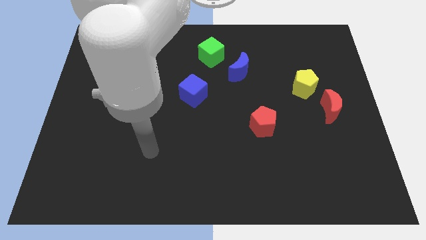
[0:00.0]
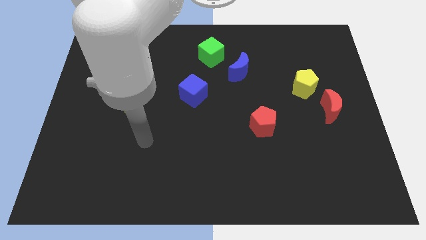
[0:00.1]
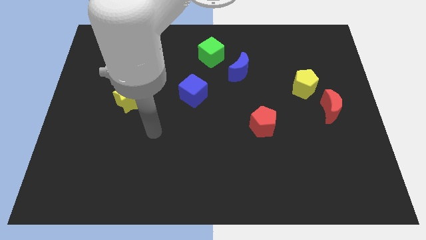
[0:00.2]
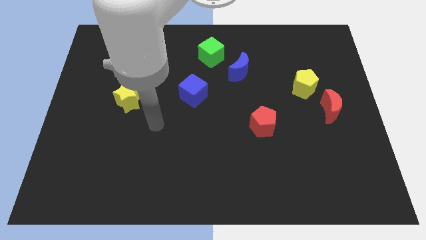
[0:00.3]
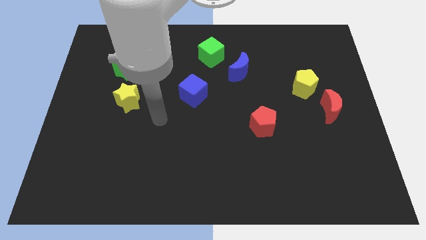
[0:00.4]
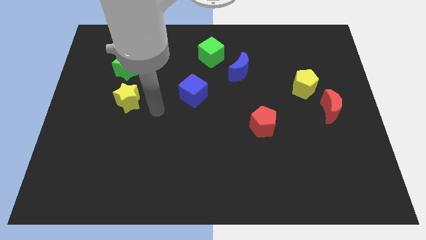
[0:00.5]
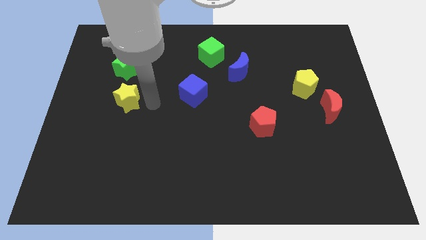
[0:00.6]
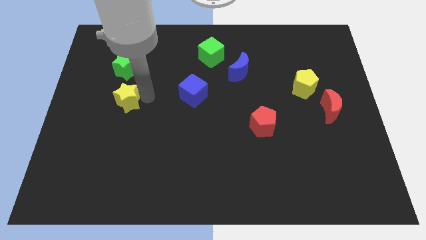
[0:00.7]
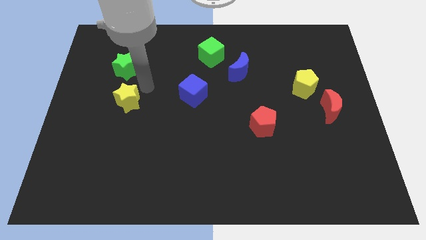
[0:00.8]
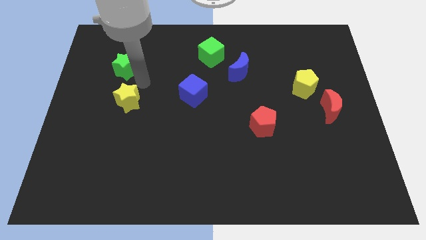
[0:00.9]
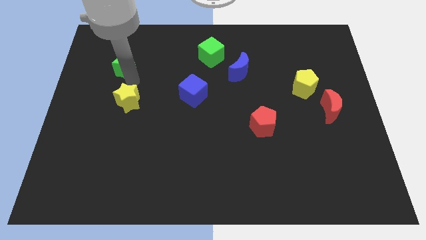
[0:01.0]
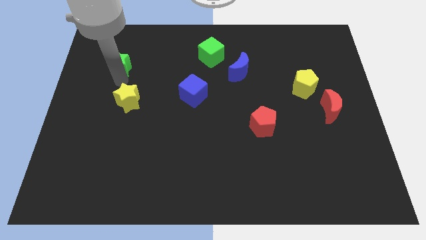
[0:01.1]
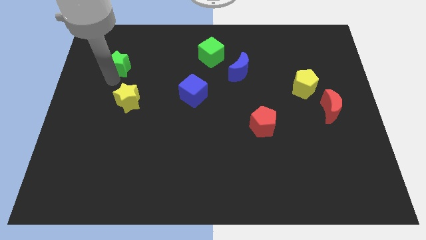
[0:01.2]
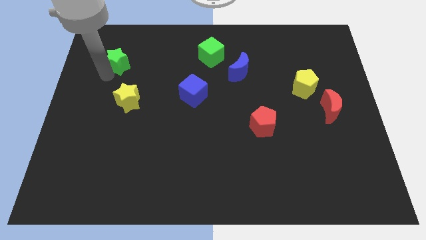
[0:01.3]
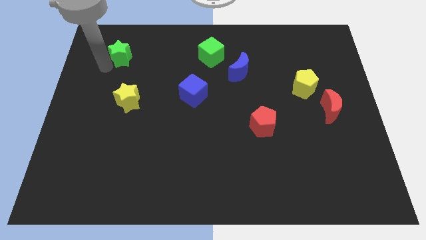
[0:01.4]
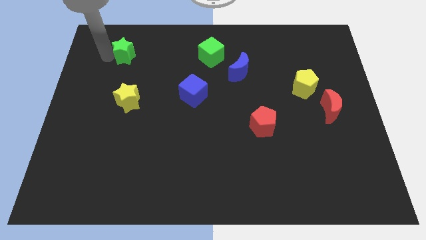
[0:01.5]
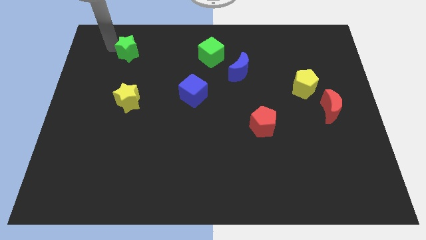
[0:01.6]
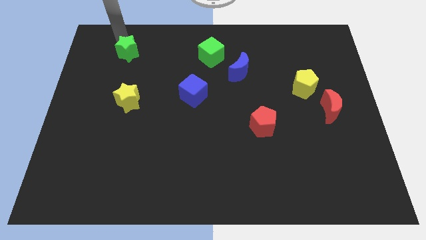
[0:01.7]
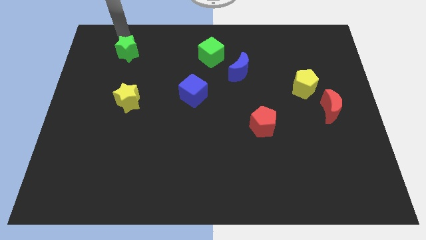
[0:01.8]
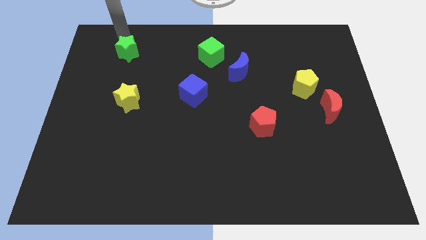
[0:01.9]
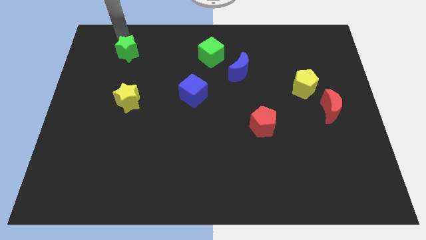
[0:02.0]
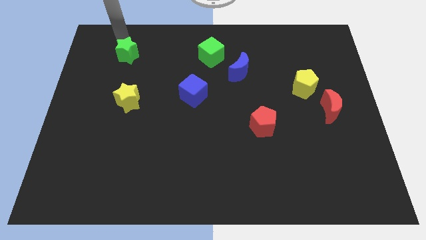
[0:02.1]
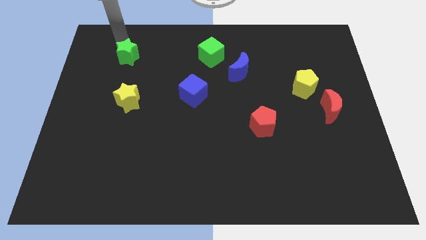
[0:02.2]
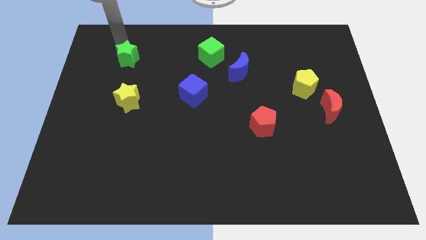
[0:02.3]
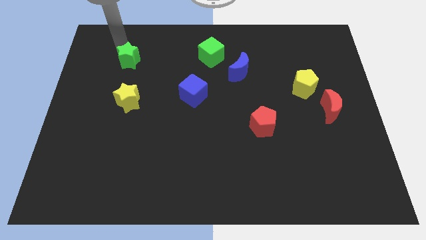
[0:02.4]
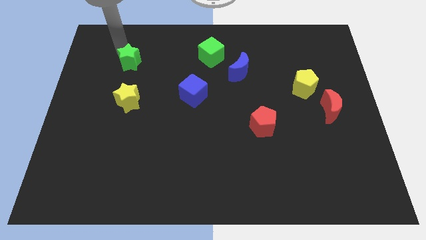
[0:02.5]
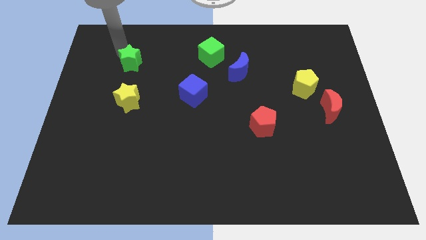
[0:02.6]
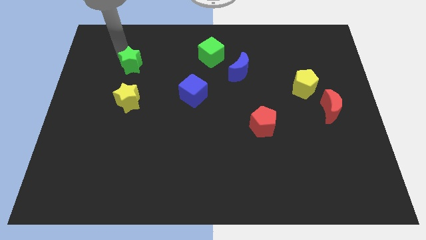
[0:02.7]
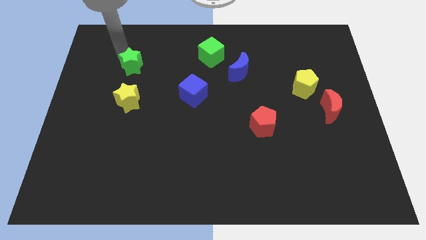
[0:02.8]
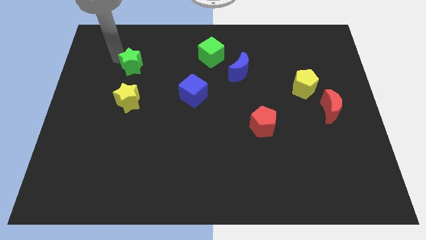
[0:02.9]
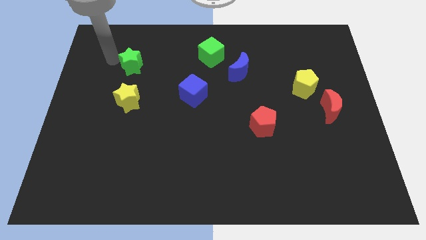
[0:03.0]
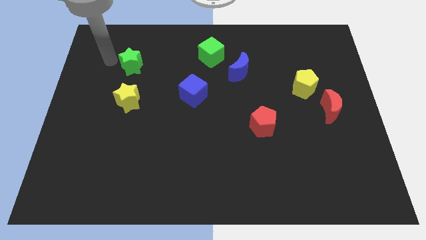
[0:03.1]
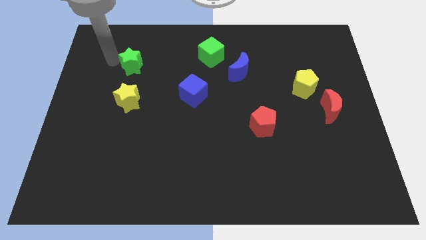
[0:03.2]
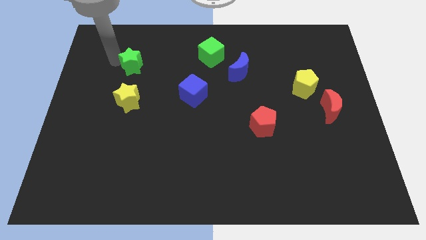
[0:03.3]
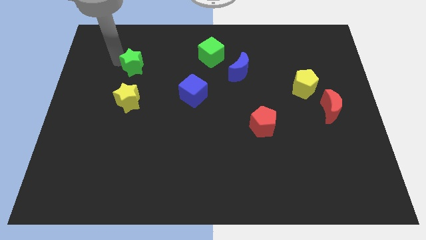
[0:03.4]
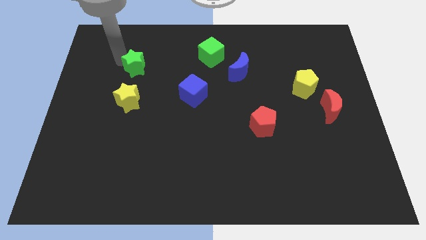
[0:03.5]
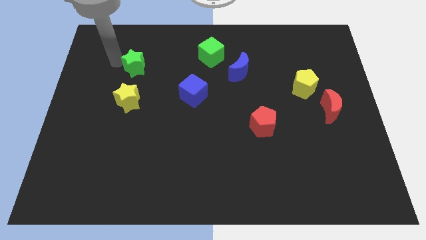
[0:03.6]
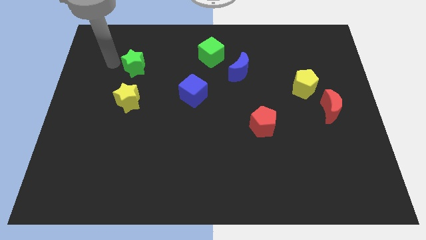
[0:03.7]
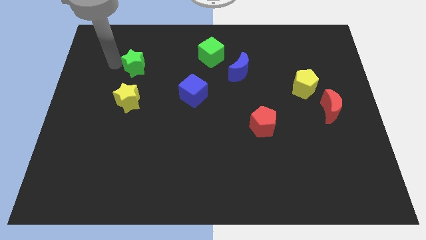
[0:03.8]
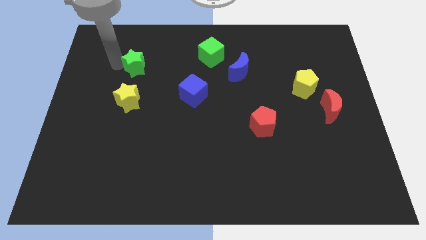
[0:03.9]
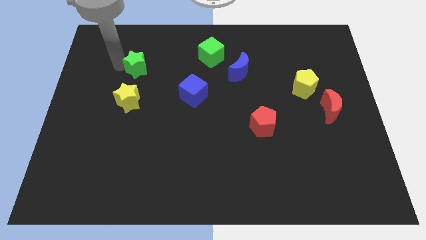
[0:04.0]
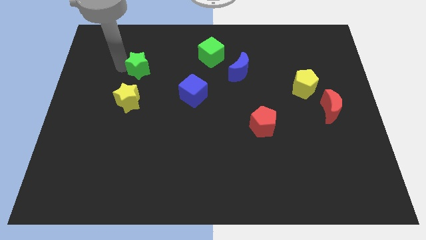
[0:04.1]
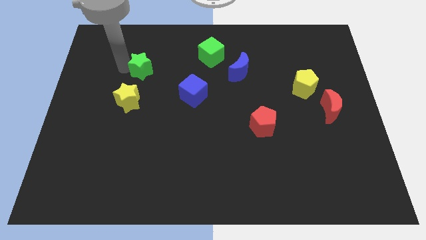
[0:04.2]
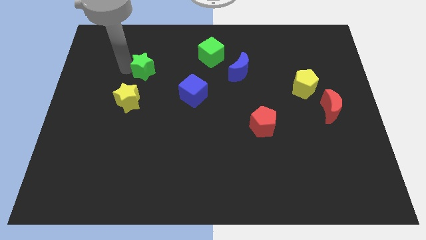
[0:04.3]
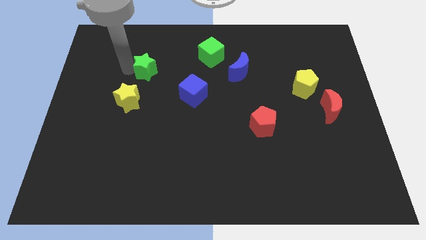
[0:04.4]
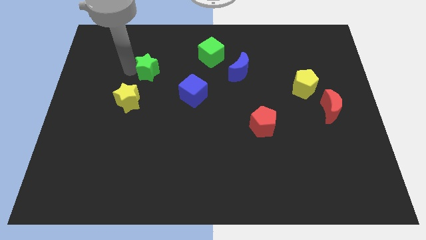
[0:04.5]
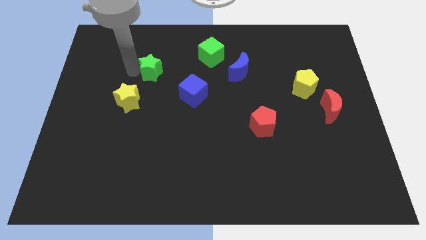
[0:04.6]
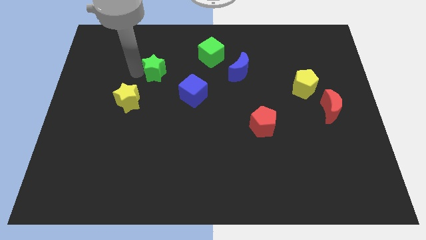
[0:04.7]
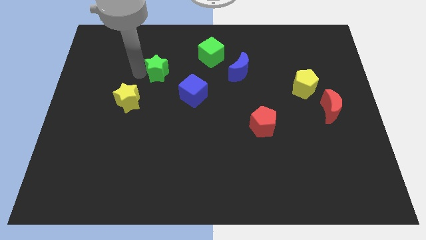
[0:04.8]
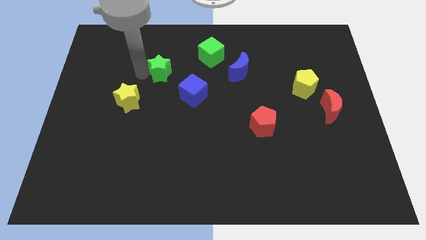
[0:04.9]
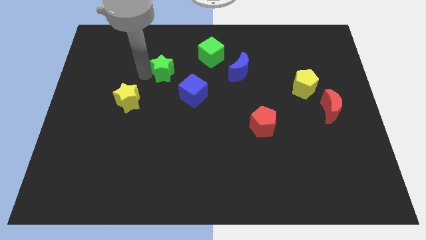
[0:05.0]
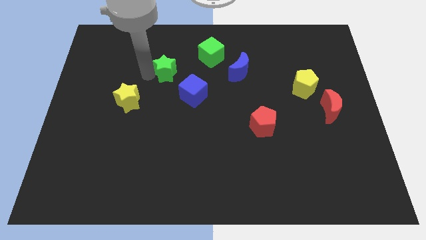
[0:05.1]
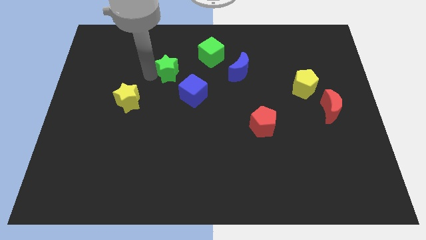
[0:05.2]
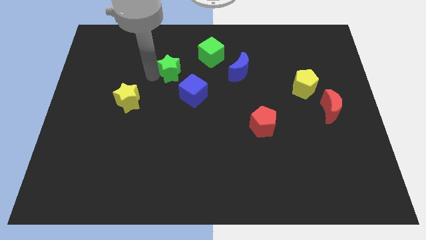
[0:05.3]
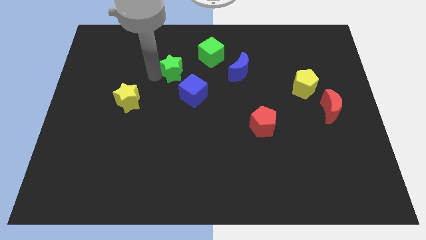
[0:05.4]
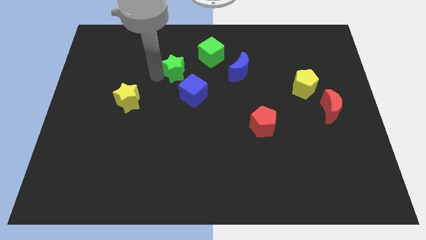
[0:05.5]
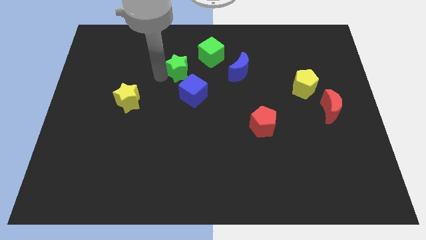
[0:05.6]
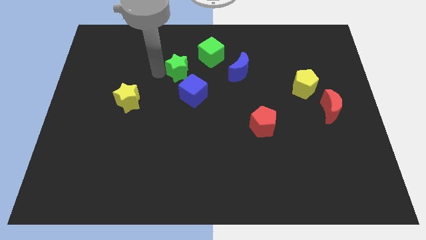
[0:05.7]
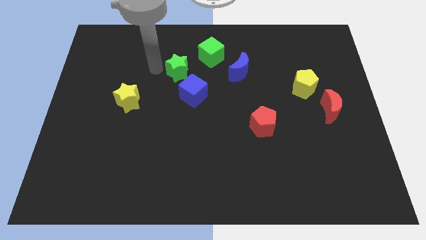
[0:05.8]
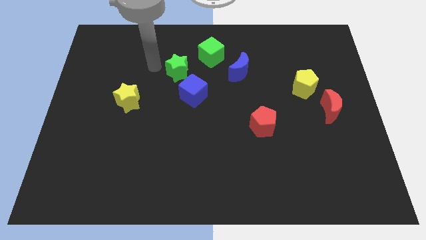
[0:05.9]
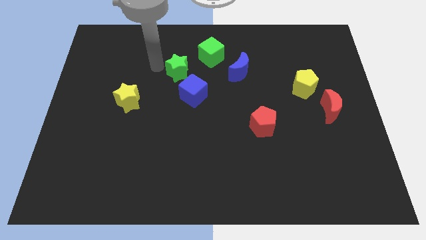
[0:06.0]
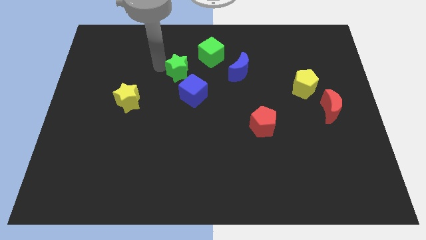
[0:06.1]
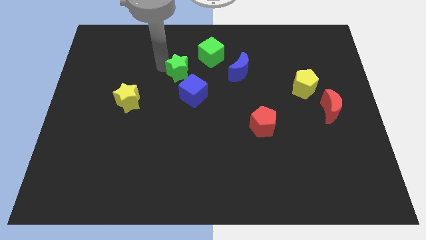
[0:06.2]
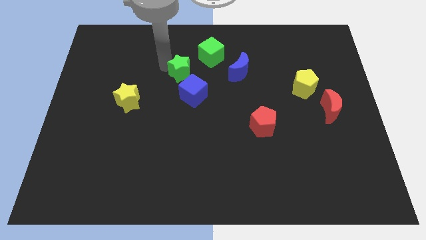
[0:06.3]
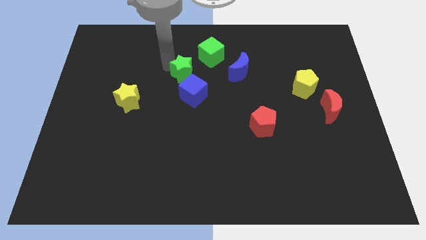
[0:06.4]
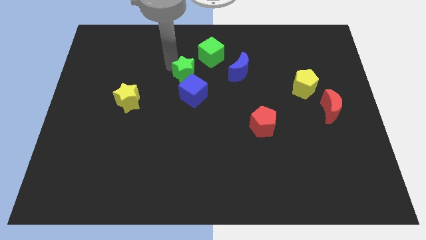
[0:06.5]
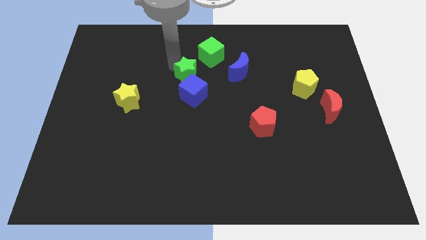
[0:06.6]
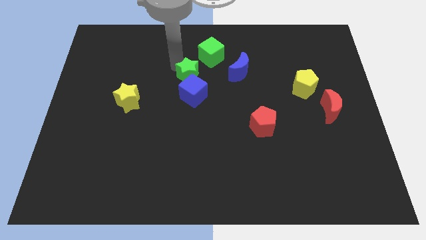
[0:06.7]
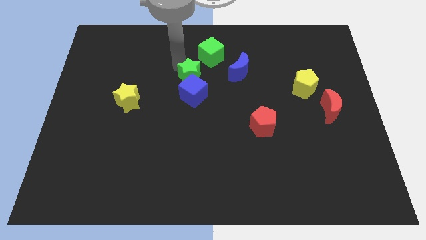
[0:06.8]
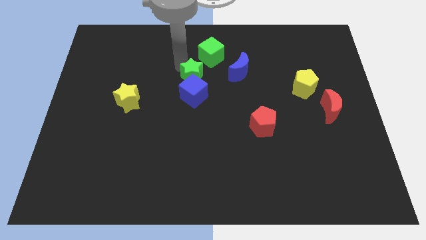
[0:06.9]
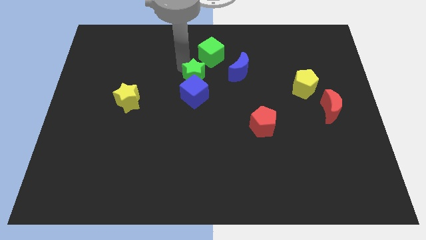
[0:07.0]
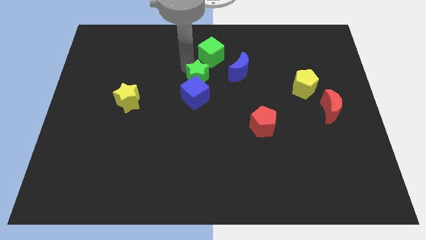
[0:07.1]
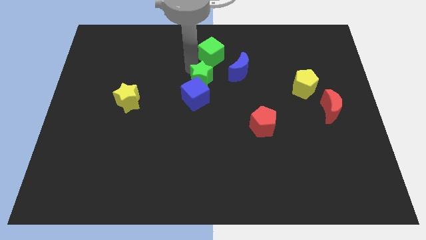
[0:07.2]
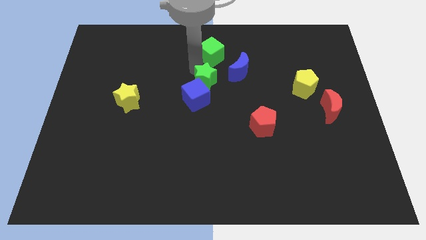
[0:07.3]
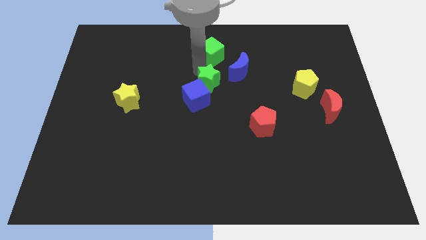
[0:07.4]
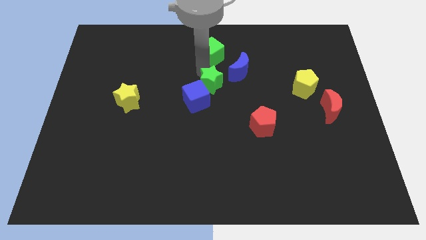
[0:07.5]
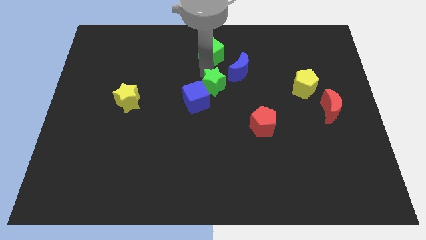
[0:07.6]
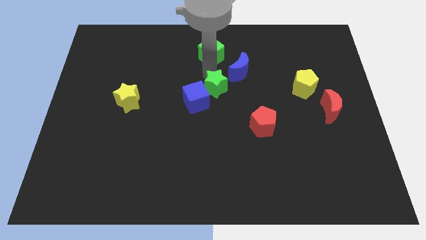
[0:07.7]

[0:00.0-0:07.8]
put the green star to the right of the blue cube
